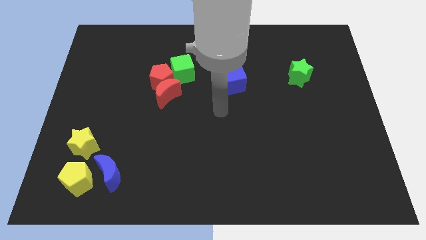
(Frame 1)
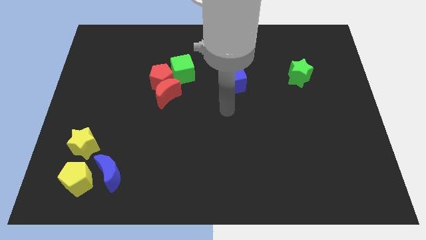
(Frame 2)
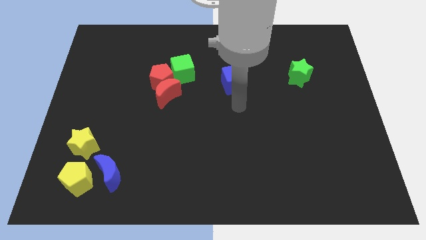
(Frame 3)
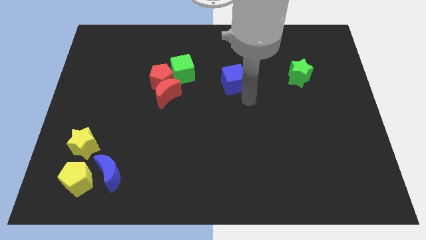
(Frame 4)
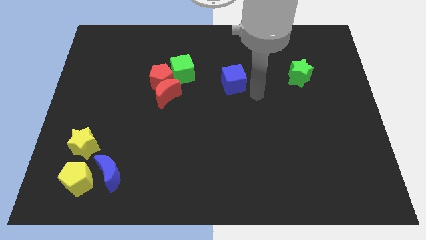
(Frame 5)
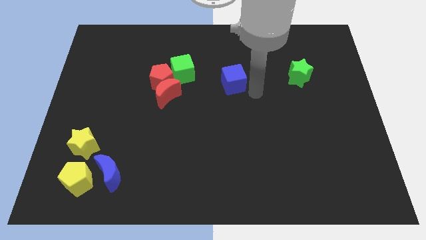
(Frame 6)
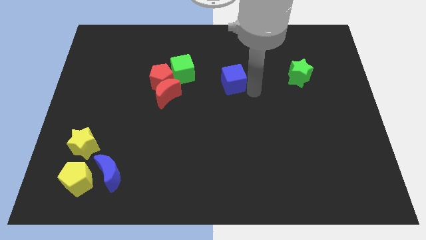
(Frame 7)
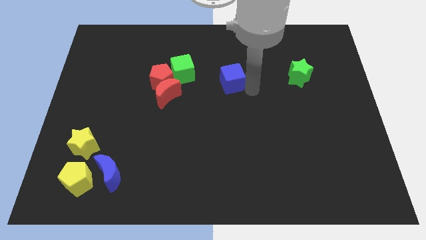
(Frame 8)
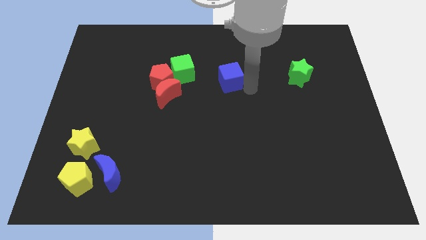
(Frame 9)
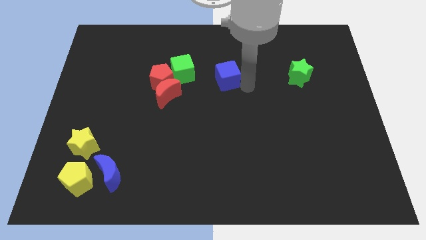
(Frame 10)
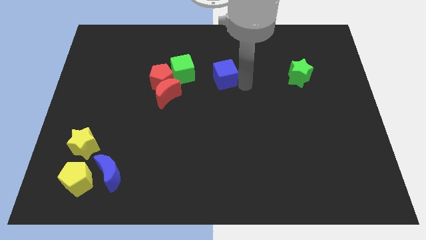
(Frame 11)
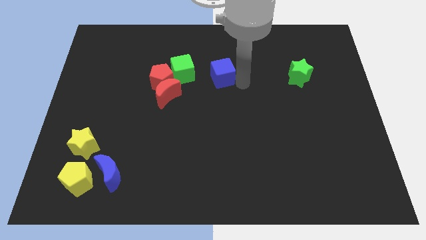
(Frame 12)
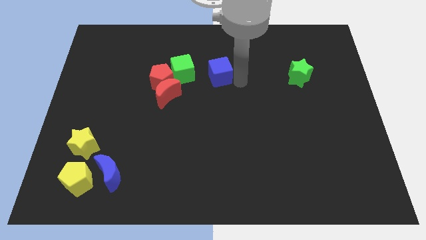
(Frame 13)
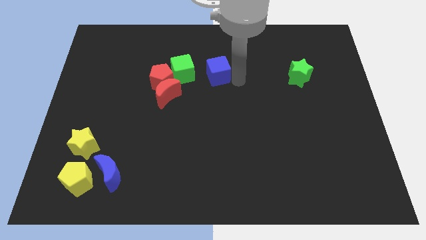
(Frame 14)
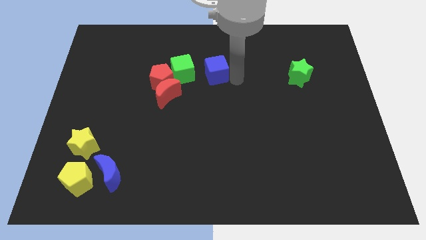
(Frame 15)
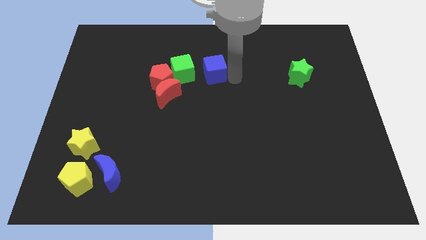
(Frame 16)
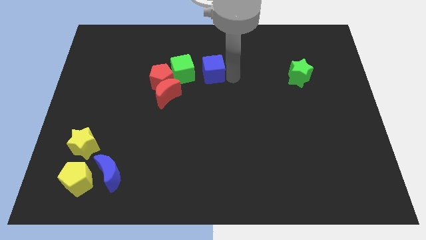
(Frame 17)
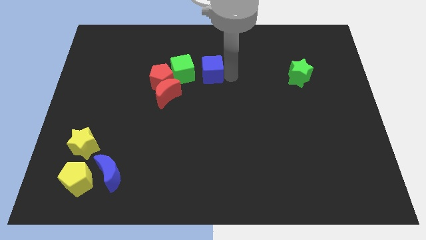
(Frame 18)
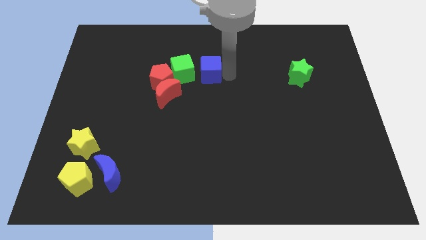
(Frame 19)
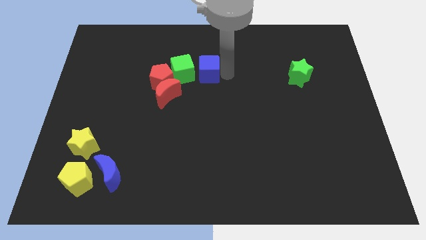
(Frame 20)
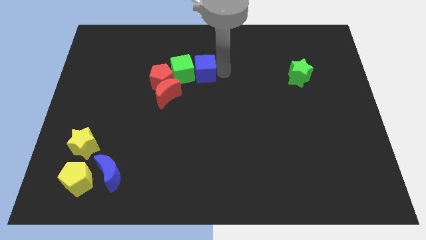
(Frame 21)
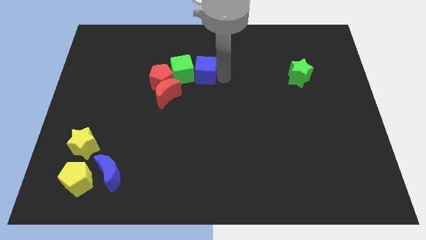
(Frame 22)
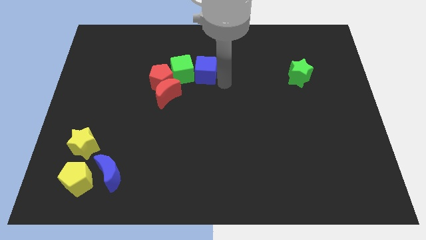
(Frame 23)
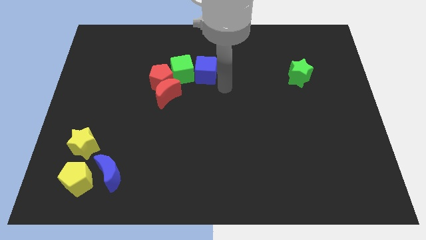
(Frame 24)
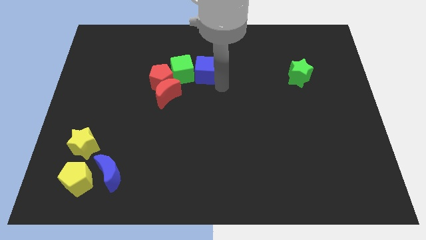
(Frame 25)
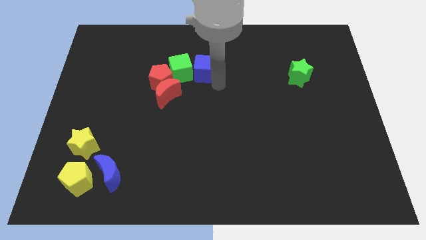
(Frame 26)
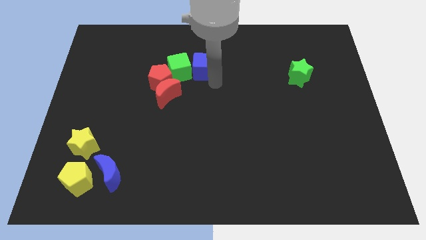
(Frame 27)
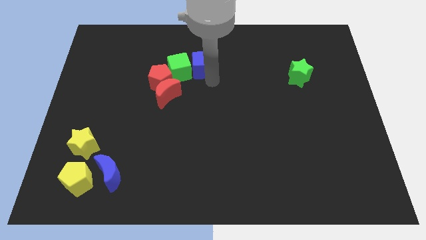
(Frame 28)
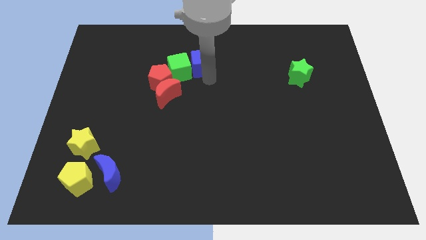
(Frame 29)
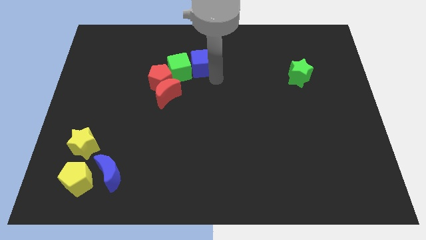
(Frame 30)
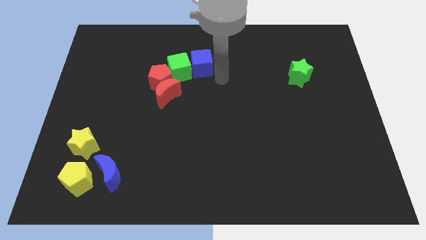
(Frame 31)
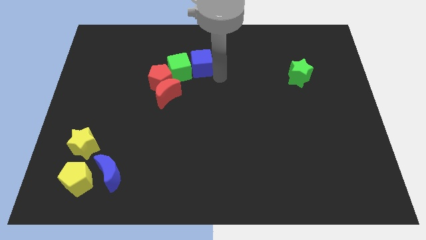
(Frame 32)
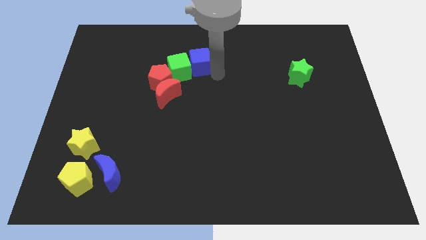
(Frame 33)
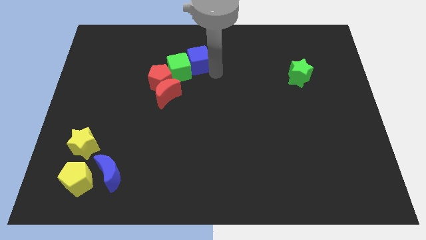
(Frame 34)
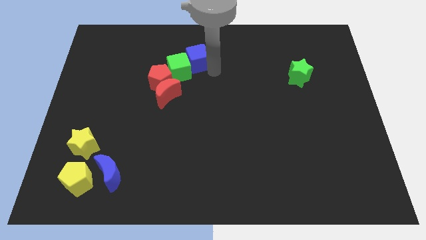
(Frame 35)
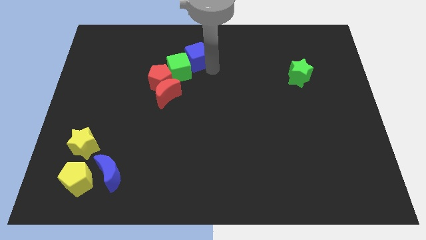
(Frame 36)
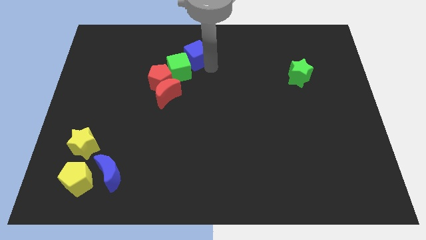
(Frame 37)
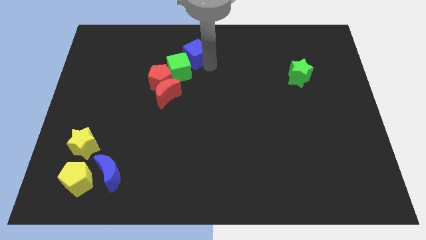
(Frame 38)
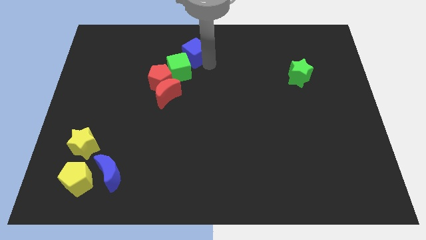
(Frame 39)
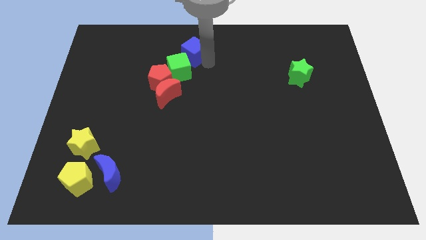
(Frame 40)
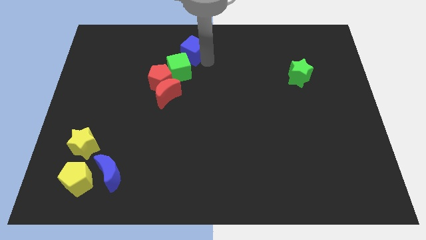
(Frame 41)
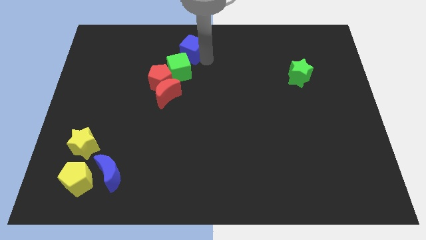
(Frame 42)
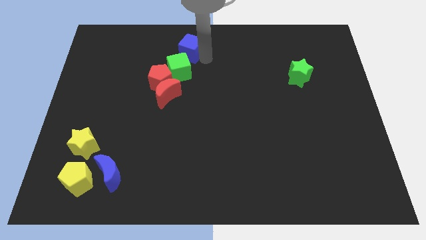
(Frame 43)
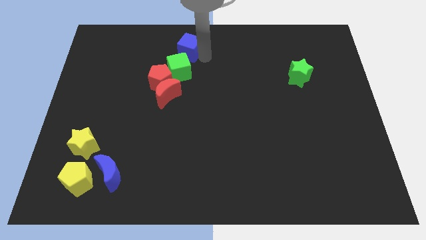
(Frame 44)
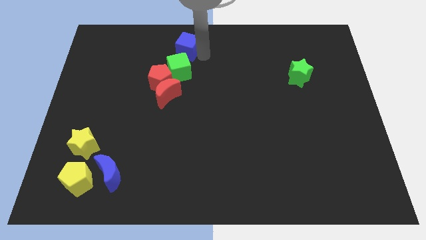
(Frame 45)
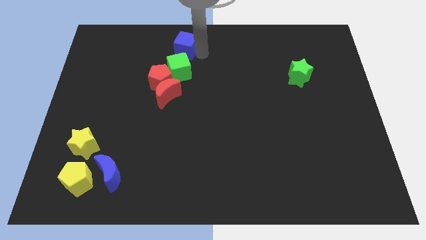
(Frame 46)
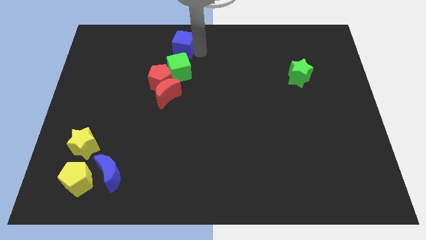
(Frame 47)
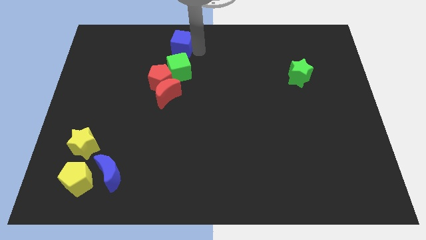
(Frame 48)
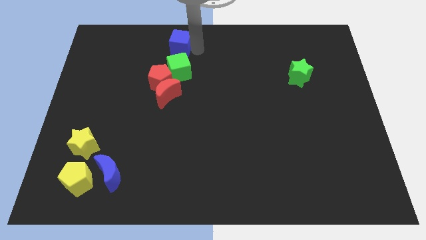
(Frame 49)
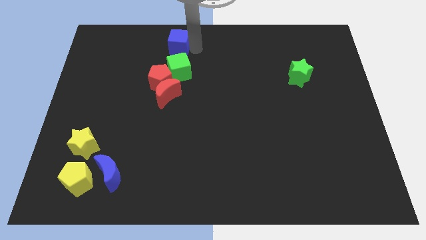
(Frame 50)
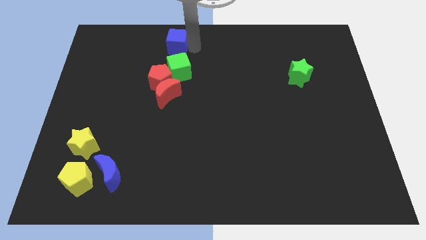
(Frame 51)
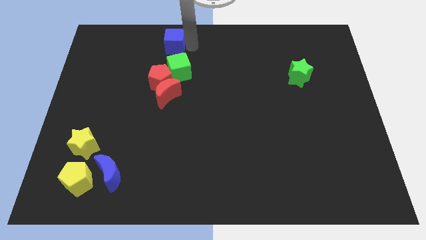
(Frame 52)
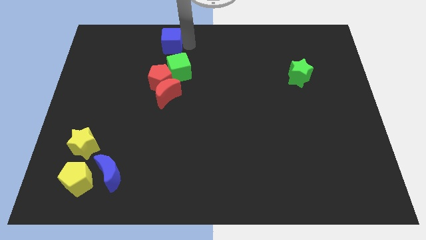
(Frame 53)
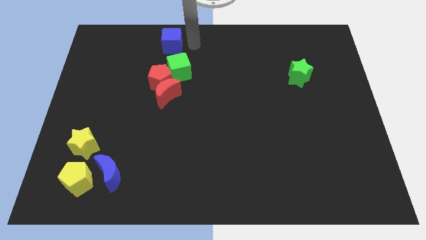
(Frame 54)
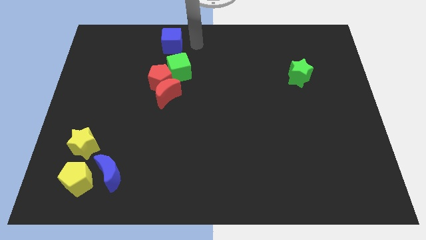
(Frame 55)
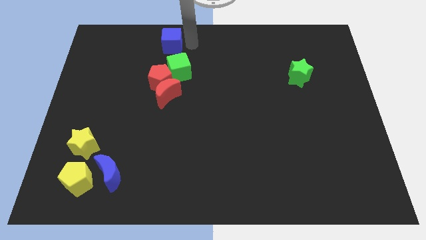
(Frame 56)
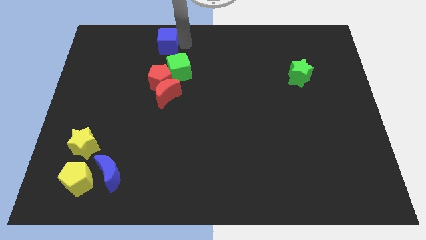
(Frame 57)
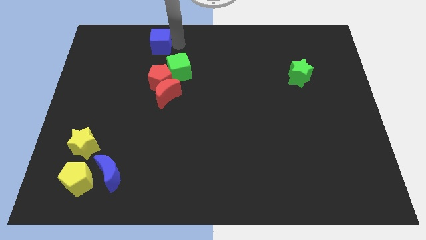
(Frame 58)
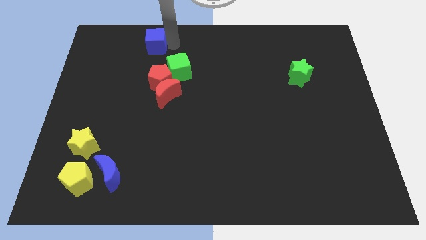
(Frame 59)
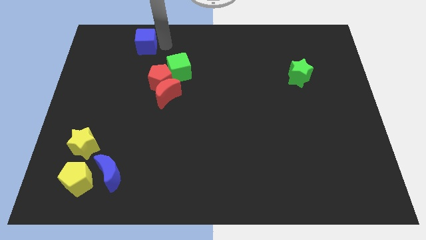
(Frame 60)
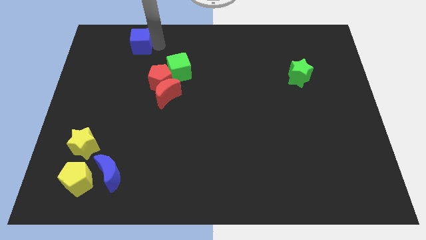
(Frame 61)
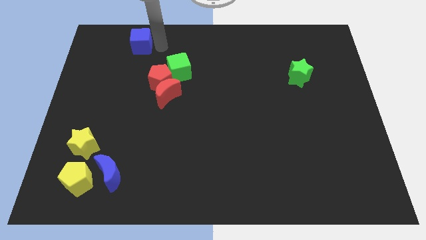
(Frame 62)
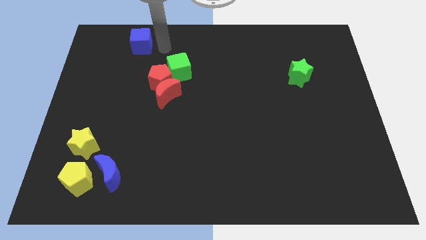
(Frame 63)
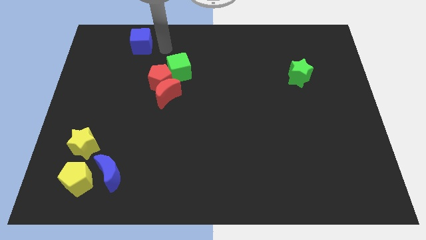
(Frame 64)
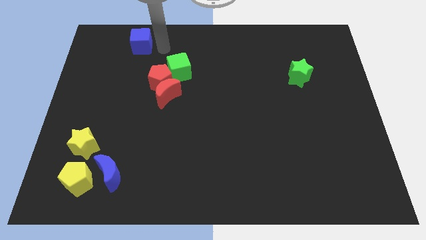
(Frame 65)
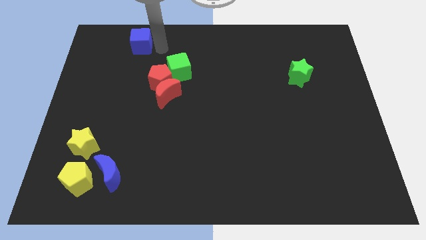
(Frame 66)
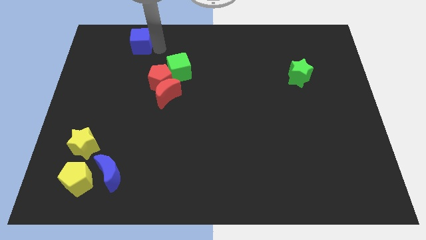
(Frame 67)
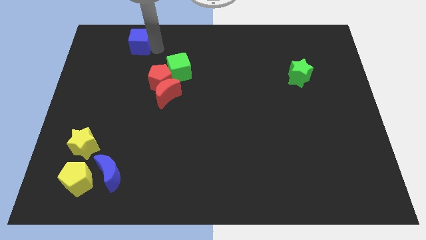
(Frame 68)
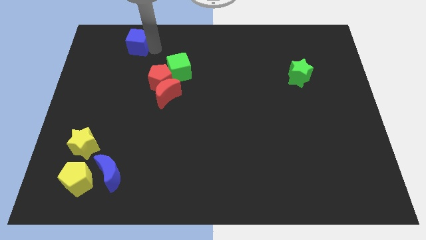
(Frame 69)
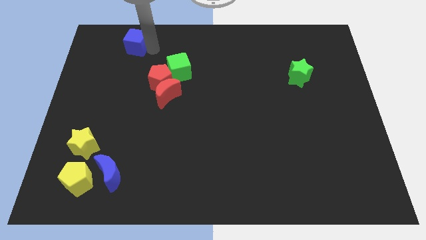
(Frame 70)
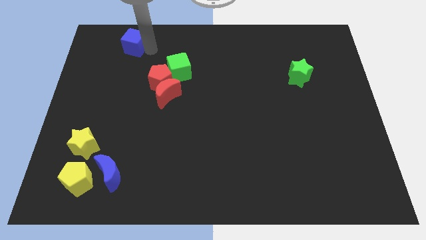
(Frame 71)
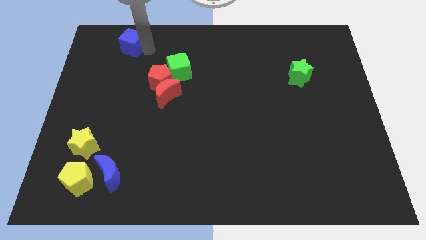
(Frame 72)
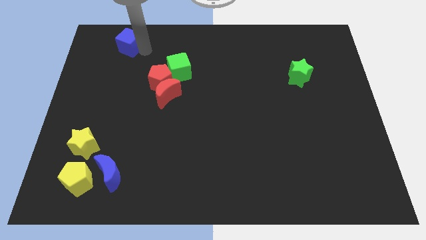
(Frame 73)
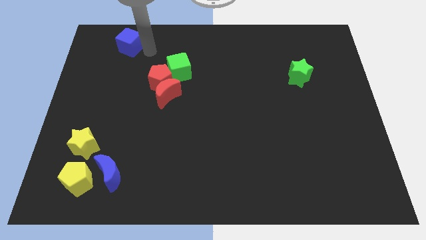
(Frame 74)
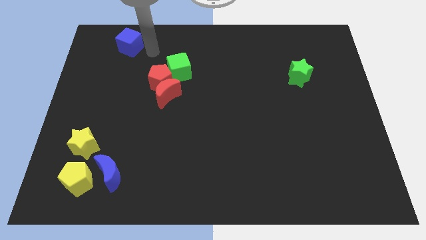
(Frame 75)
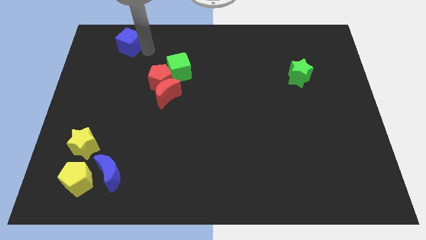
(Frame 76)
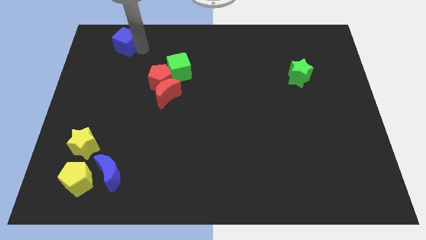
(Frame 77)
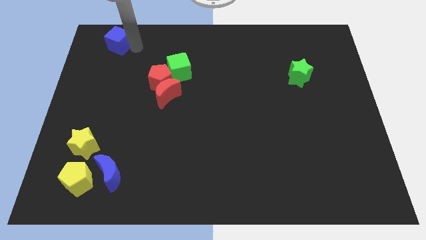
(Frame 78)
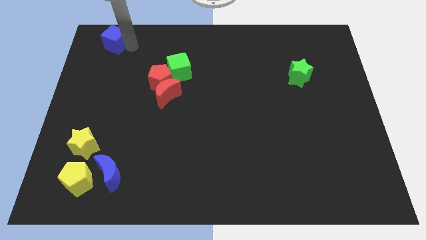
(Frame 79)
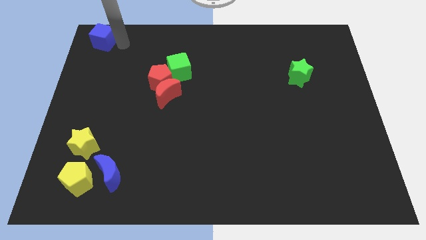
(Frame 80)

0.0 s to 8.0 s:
move the blue cube to the top left corner
